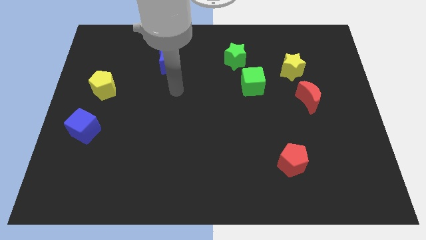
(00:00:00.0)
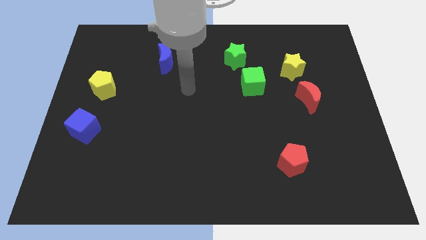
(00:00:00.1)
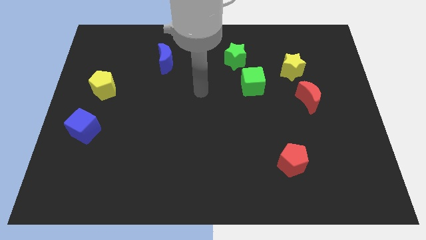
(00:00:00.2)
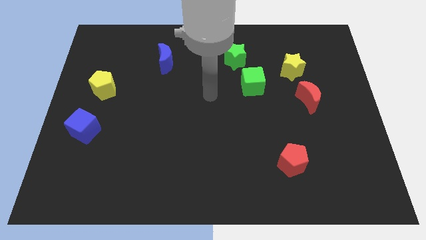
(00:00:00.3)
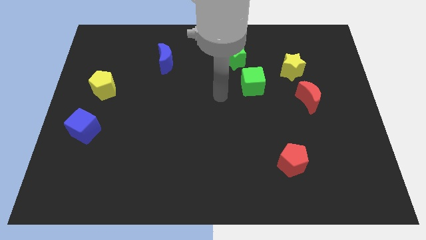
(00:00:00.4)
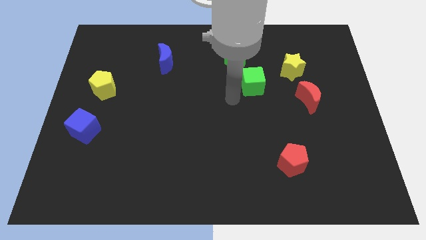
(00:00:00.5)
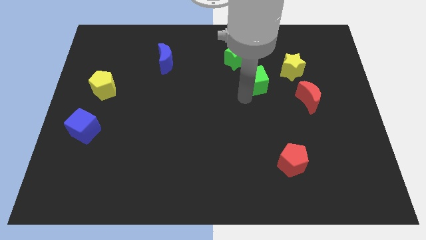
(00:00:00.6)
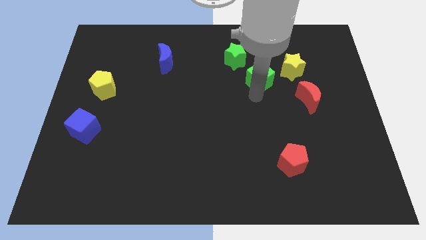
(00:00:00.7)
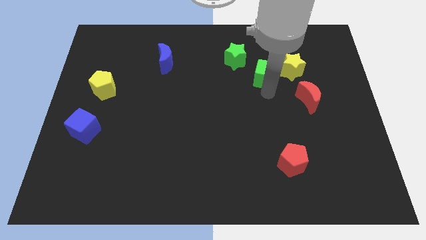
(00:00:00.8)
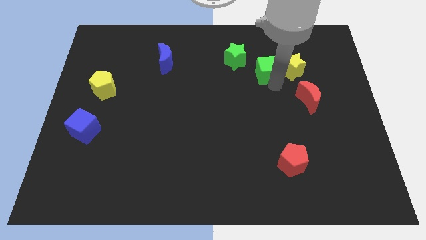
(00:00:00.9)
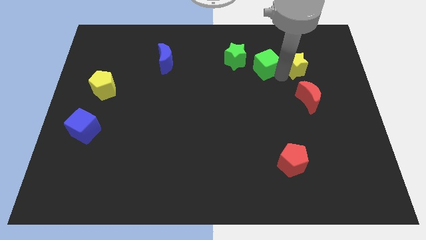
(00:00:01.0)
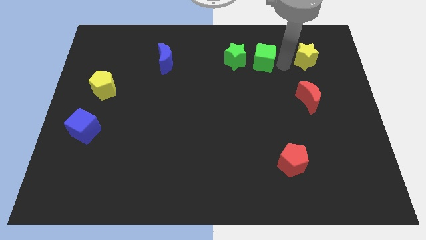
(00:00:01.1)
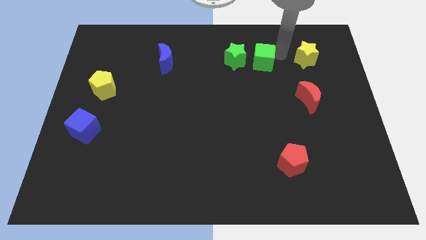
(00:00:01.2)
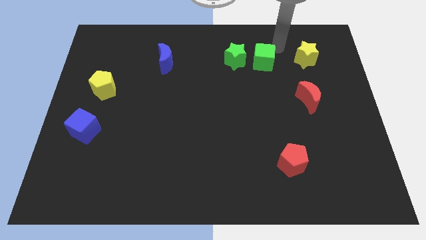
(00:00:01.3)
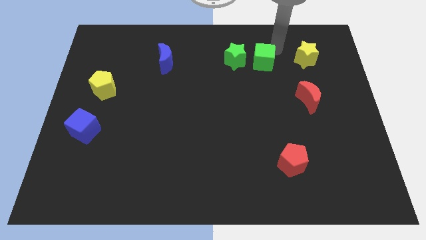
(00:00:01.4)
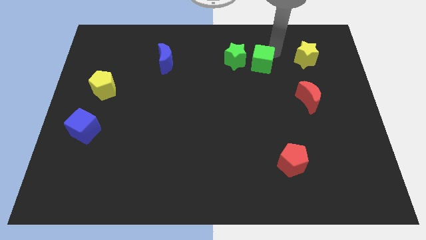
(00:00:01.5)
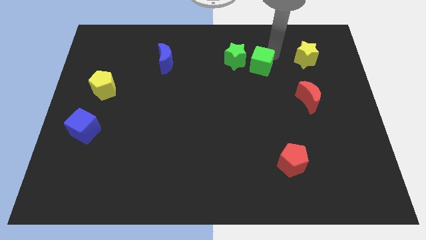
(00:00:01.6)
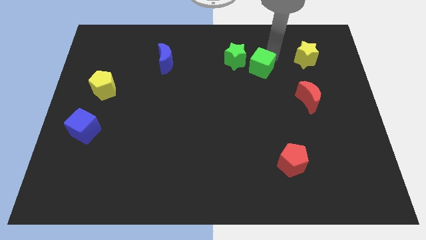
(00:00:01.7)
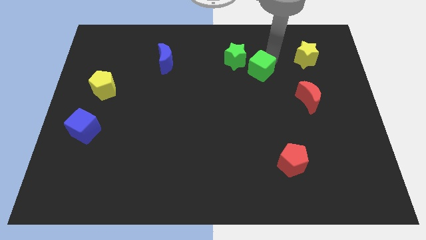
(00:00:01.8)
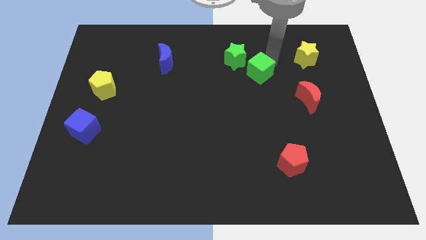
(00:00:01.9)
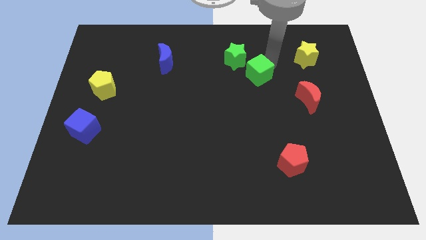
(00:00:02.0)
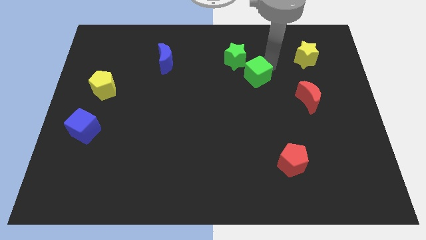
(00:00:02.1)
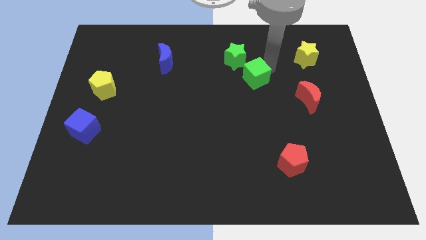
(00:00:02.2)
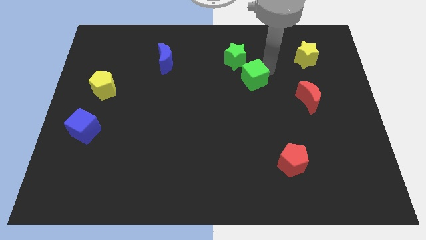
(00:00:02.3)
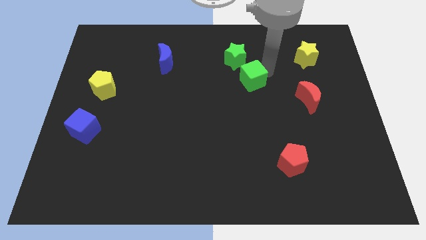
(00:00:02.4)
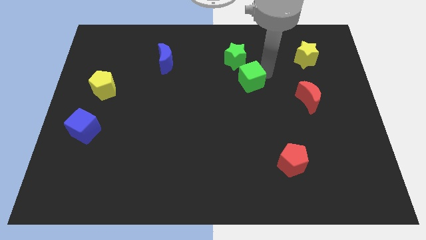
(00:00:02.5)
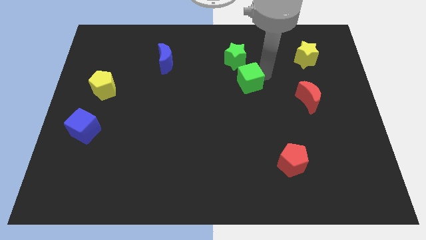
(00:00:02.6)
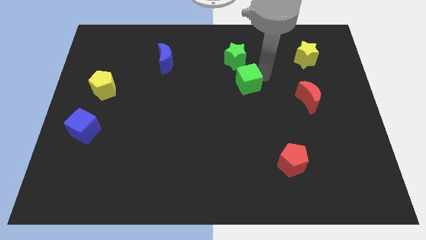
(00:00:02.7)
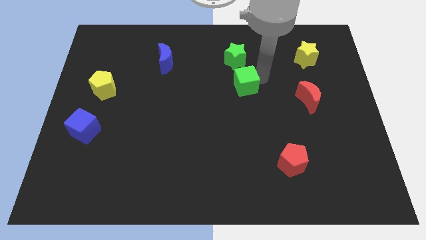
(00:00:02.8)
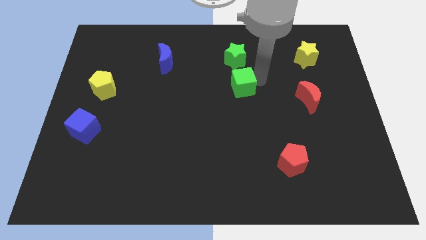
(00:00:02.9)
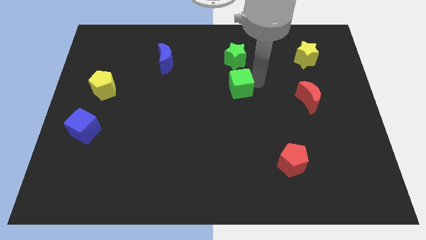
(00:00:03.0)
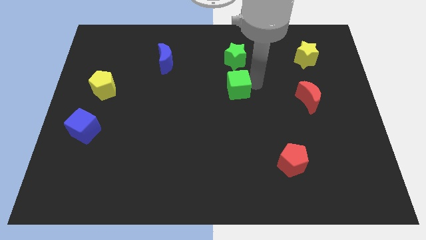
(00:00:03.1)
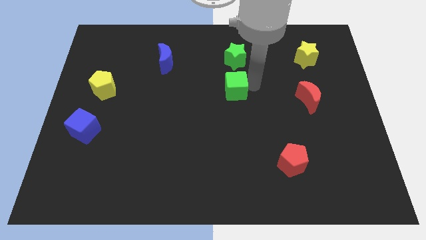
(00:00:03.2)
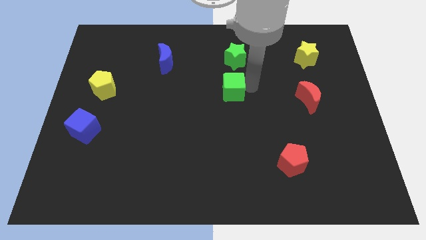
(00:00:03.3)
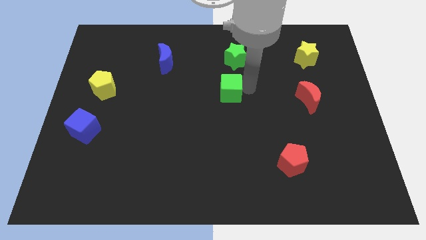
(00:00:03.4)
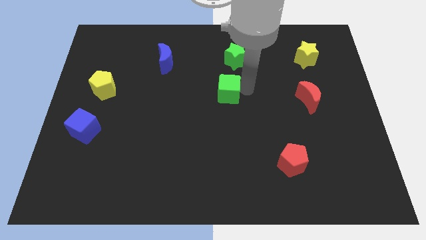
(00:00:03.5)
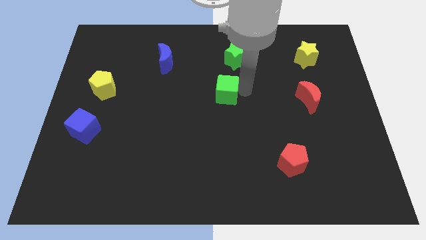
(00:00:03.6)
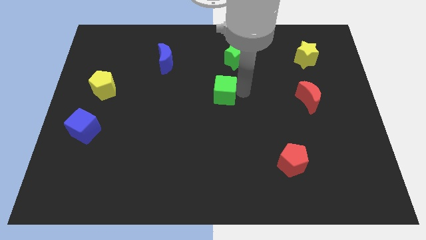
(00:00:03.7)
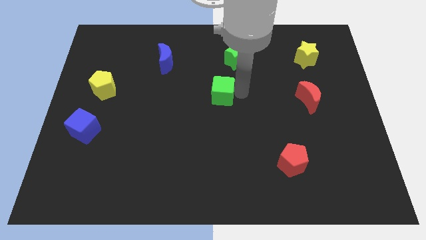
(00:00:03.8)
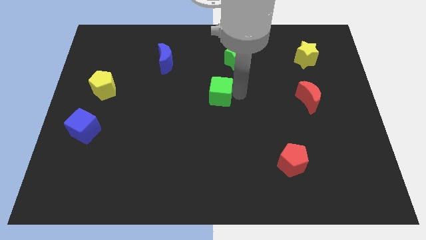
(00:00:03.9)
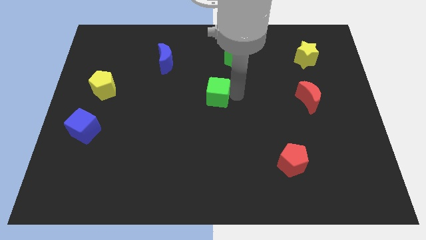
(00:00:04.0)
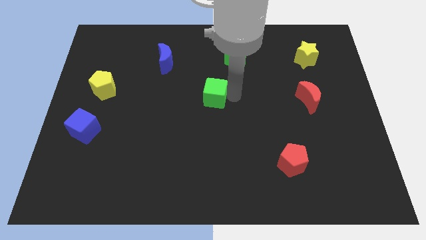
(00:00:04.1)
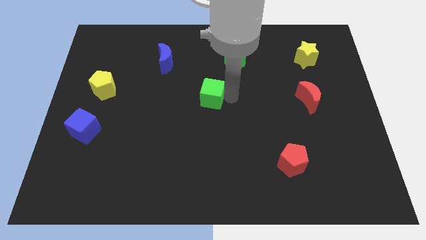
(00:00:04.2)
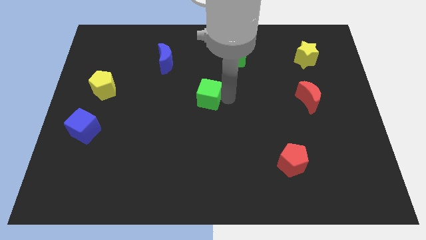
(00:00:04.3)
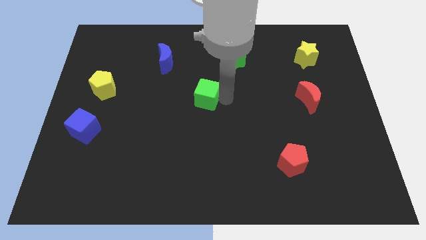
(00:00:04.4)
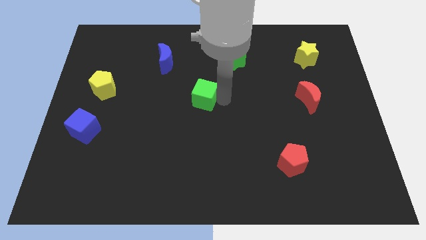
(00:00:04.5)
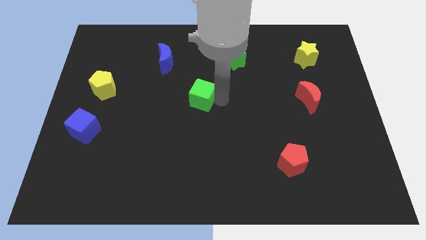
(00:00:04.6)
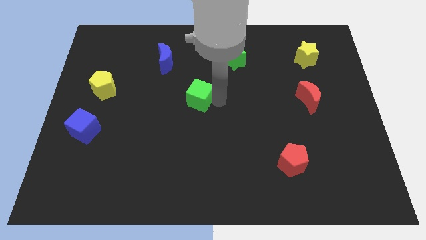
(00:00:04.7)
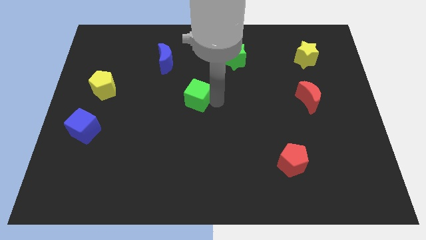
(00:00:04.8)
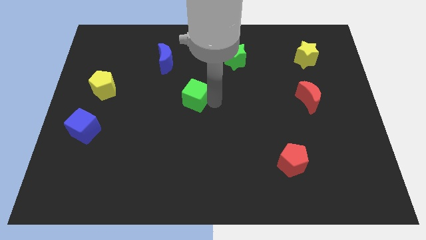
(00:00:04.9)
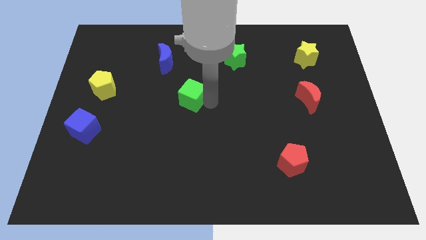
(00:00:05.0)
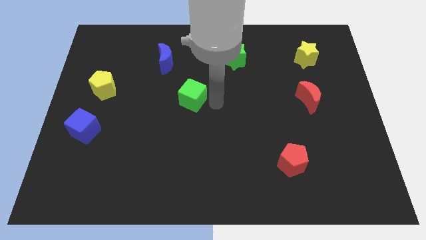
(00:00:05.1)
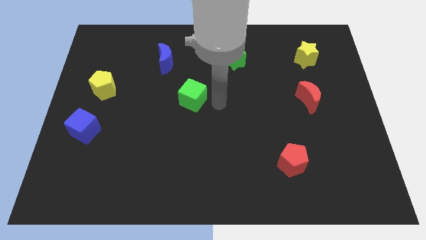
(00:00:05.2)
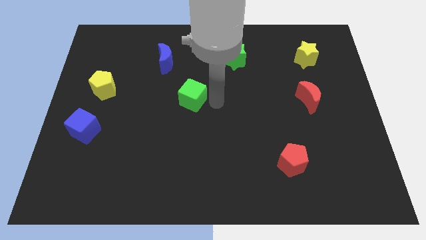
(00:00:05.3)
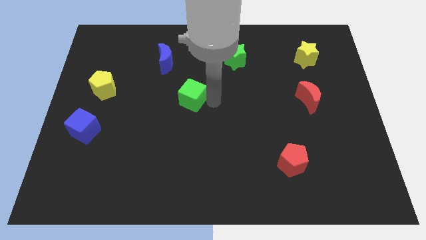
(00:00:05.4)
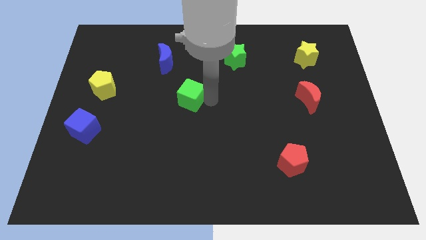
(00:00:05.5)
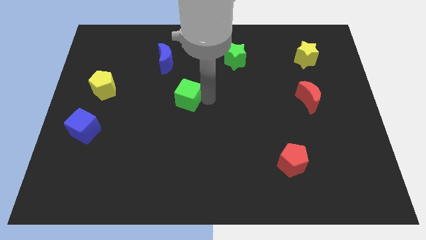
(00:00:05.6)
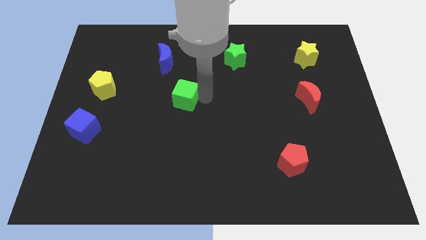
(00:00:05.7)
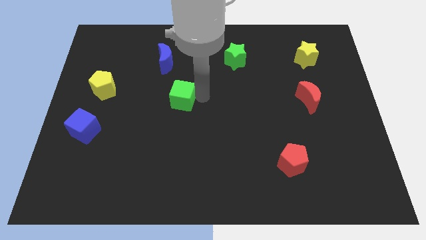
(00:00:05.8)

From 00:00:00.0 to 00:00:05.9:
slide the green cube to the bottom side of the blue moon

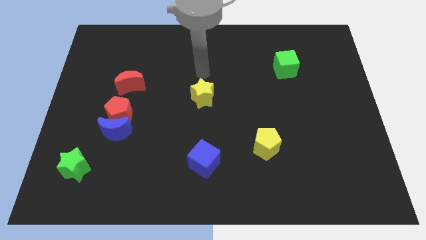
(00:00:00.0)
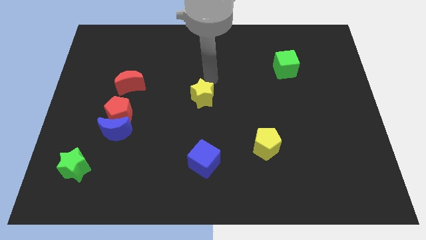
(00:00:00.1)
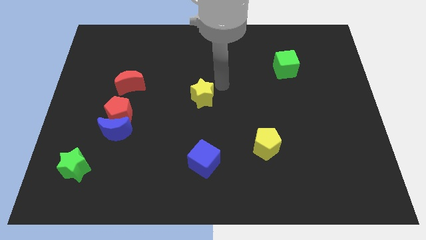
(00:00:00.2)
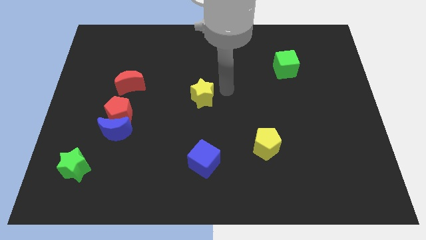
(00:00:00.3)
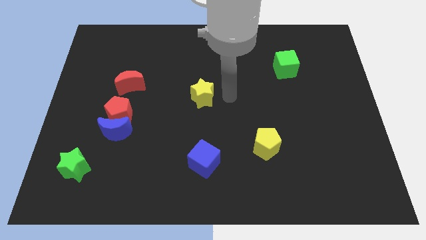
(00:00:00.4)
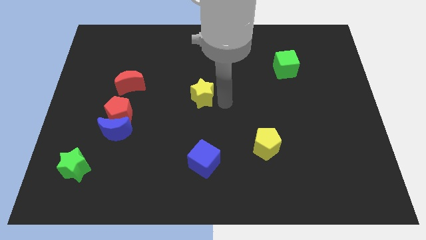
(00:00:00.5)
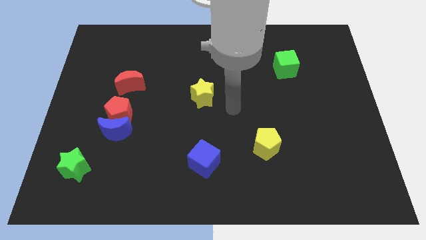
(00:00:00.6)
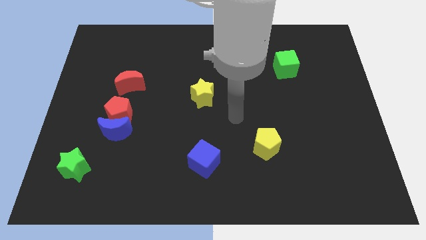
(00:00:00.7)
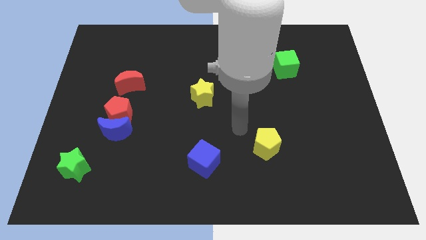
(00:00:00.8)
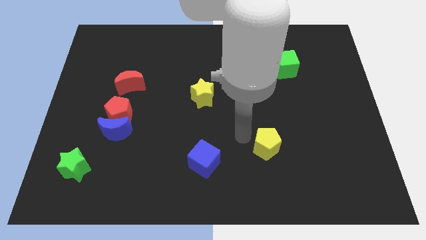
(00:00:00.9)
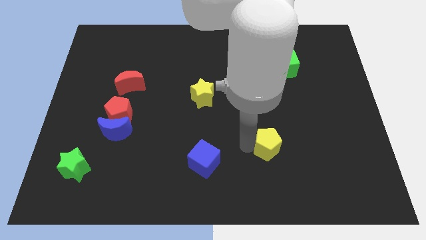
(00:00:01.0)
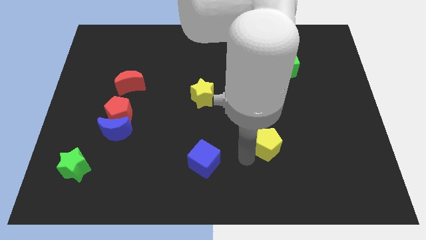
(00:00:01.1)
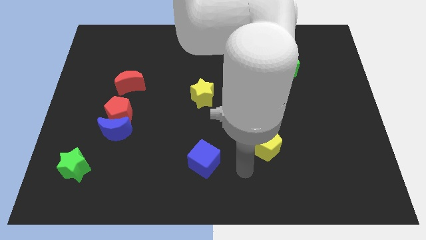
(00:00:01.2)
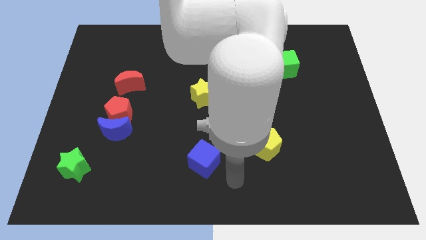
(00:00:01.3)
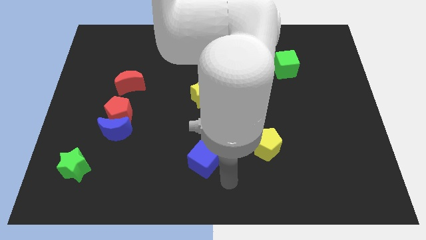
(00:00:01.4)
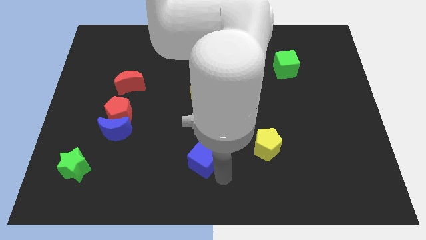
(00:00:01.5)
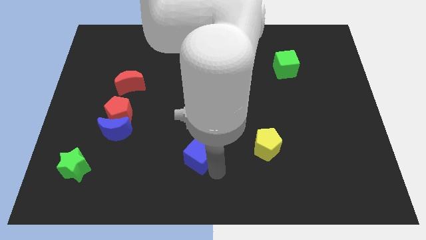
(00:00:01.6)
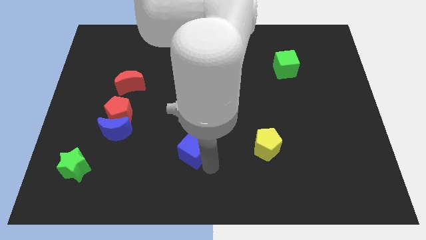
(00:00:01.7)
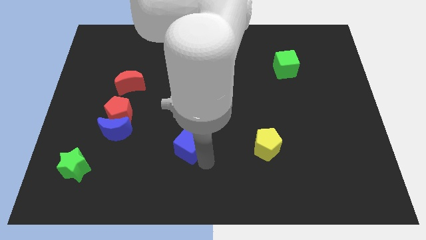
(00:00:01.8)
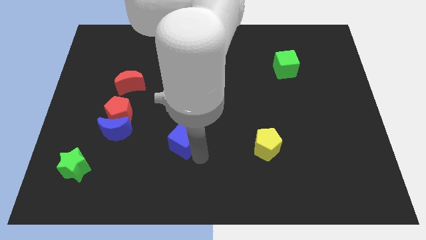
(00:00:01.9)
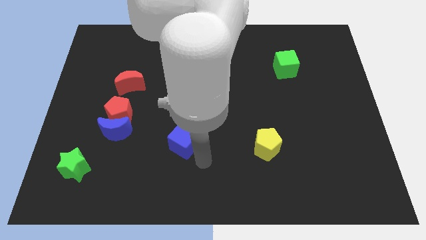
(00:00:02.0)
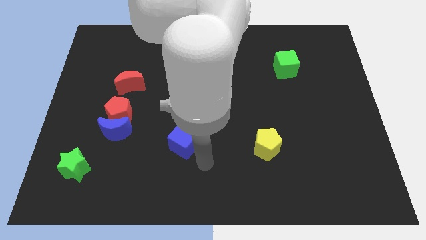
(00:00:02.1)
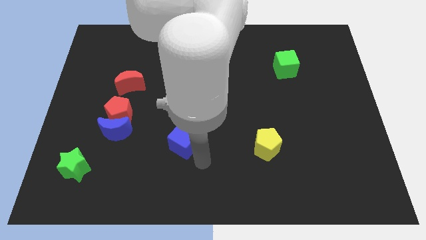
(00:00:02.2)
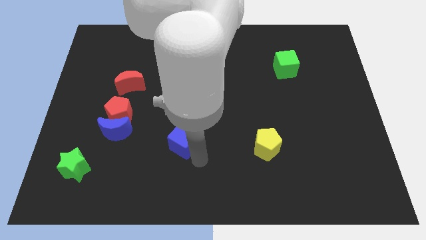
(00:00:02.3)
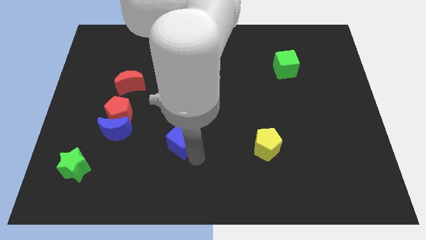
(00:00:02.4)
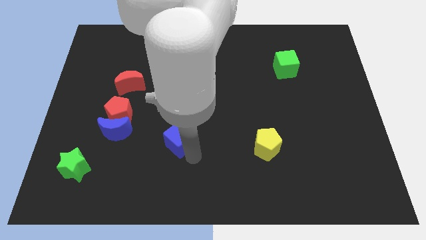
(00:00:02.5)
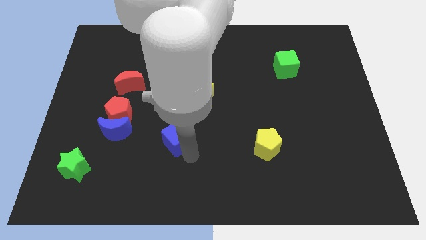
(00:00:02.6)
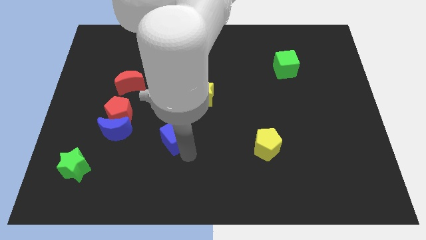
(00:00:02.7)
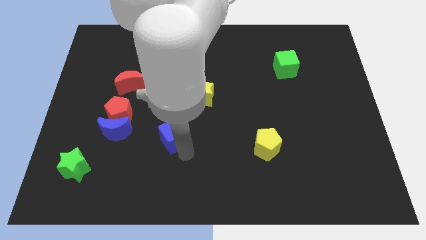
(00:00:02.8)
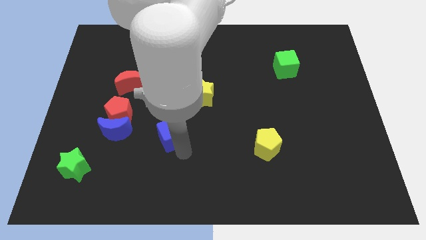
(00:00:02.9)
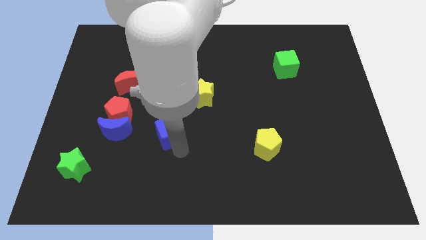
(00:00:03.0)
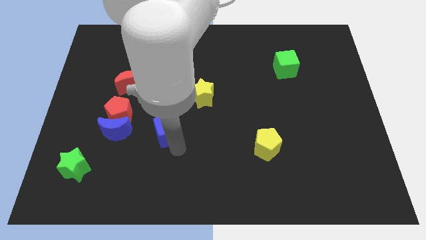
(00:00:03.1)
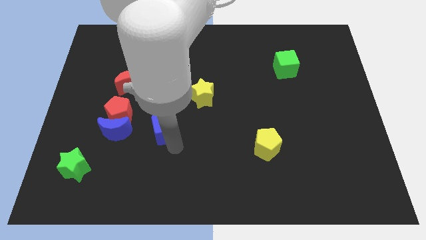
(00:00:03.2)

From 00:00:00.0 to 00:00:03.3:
move the blue cube just right of the red pentagon
